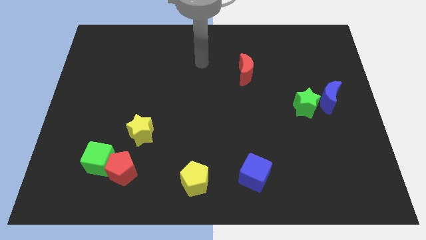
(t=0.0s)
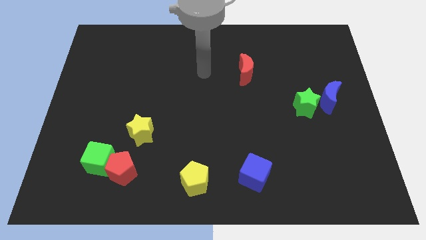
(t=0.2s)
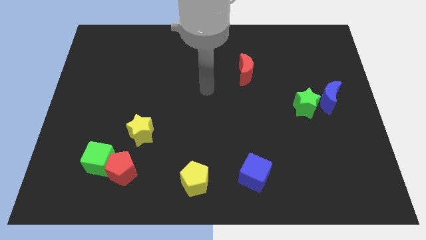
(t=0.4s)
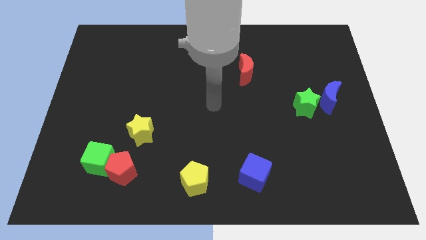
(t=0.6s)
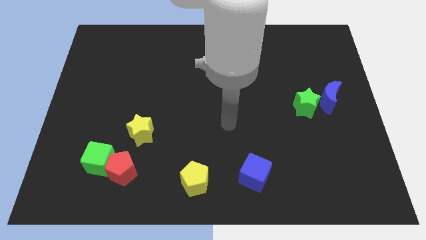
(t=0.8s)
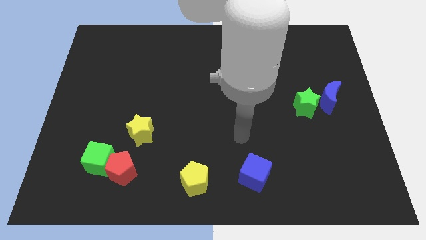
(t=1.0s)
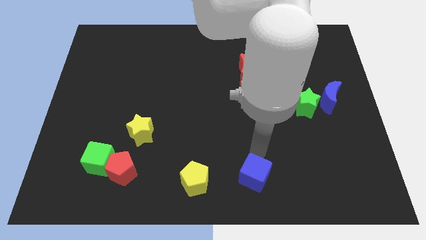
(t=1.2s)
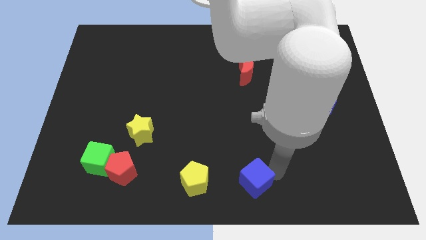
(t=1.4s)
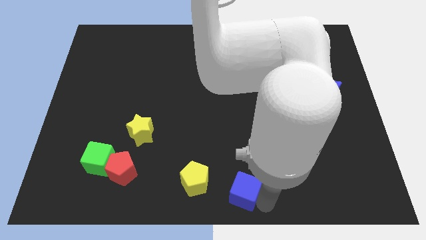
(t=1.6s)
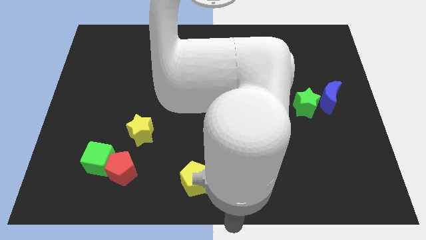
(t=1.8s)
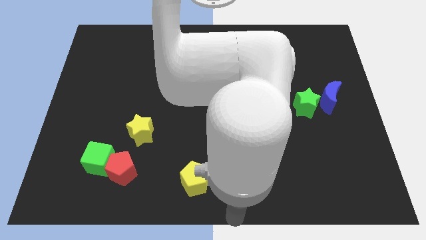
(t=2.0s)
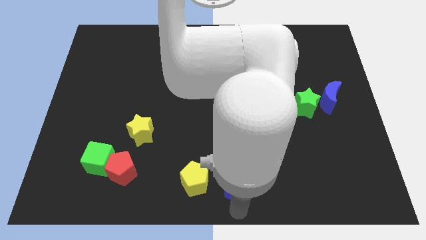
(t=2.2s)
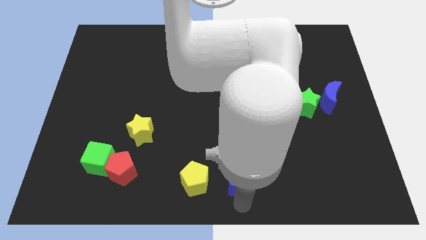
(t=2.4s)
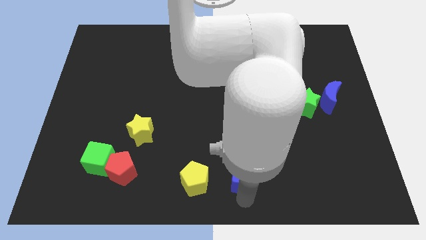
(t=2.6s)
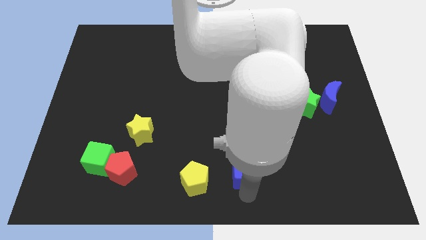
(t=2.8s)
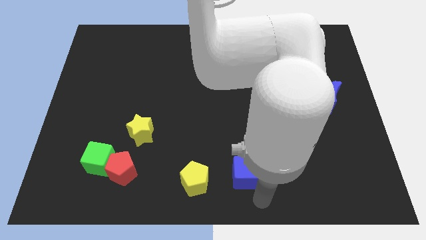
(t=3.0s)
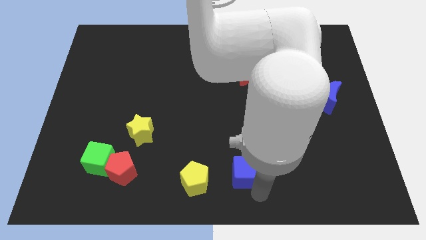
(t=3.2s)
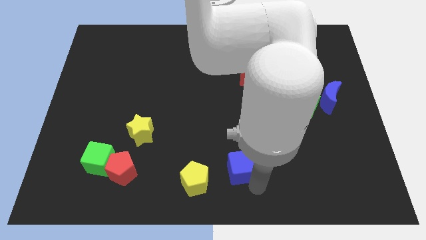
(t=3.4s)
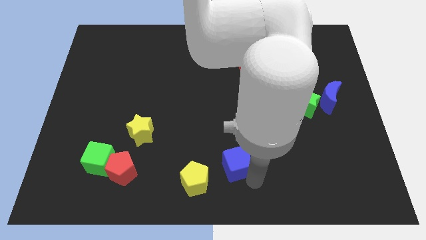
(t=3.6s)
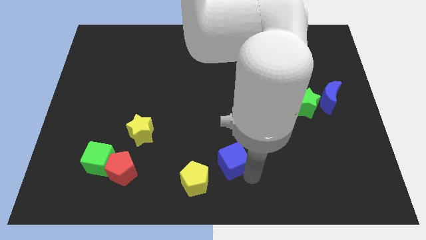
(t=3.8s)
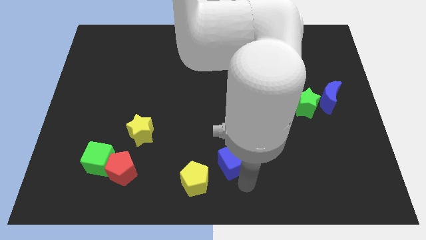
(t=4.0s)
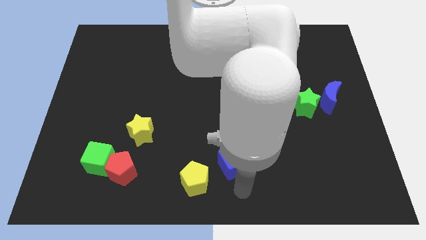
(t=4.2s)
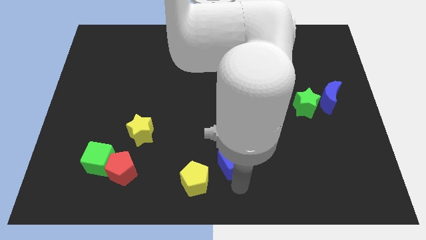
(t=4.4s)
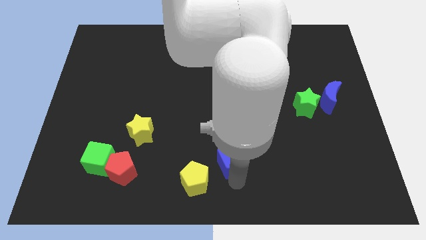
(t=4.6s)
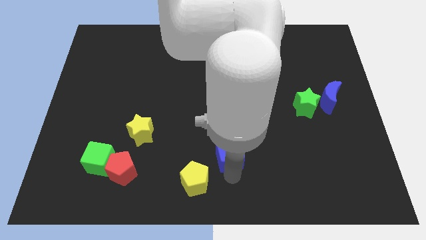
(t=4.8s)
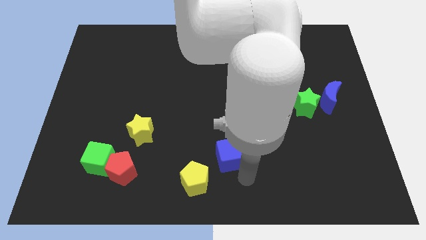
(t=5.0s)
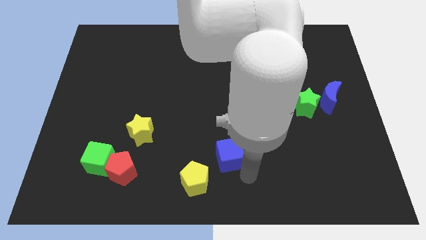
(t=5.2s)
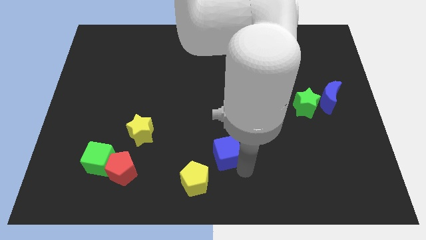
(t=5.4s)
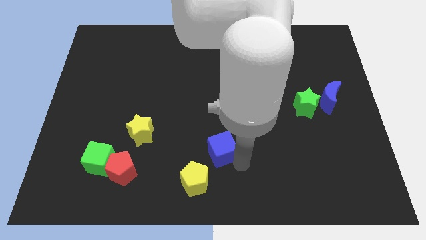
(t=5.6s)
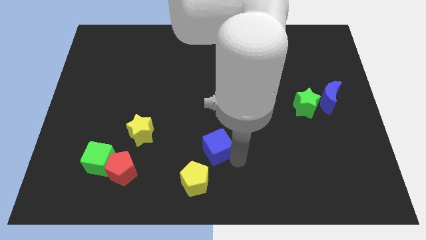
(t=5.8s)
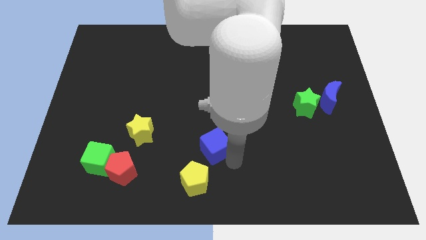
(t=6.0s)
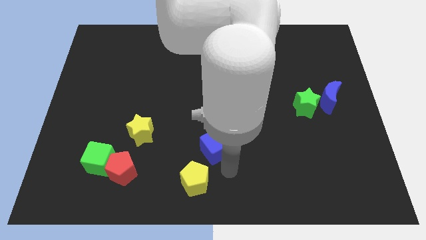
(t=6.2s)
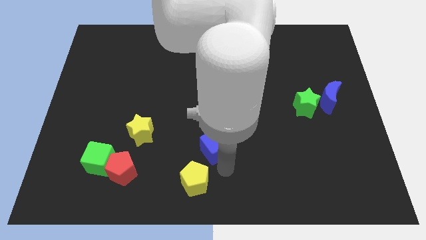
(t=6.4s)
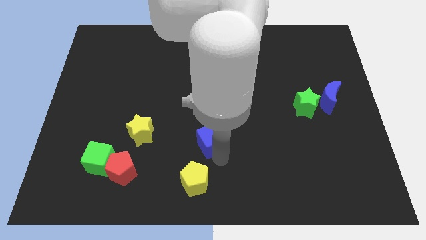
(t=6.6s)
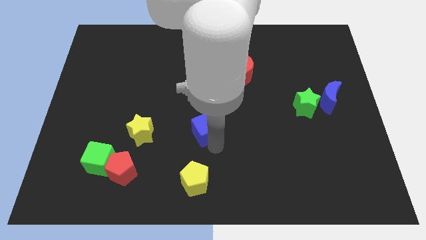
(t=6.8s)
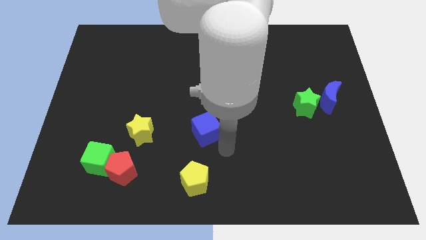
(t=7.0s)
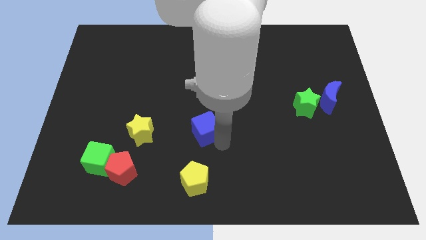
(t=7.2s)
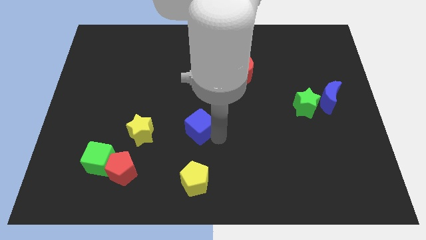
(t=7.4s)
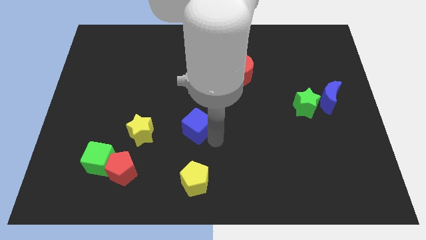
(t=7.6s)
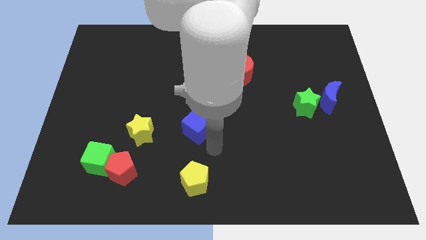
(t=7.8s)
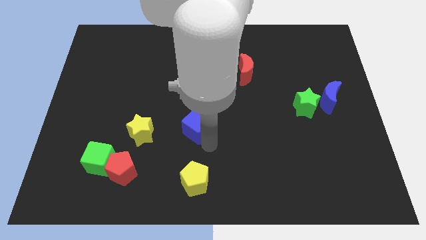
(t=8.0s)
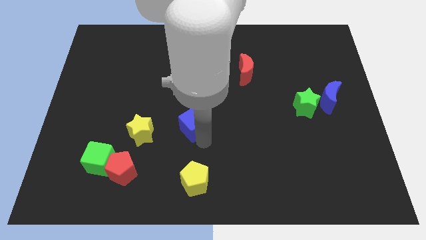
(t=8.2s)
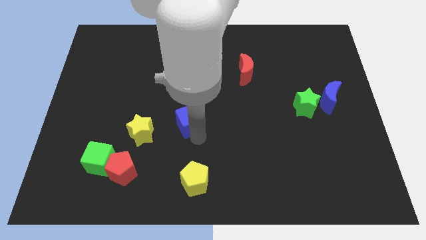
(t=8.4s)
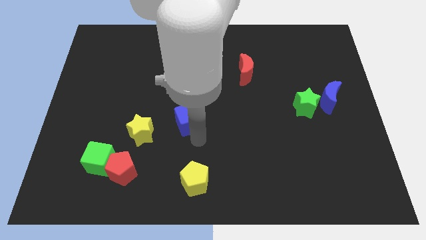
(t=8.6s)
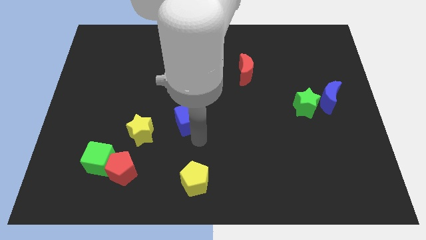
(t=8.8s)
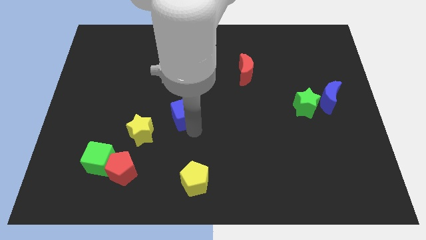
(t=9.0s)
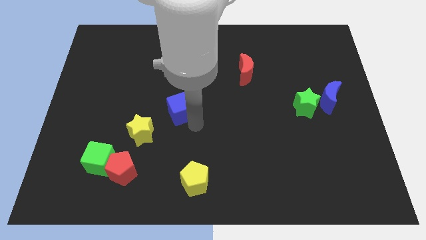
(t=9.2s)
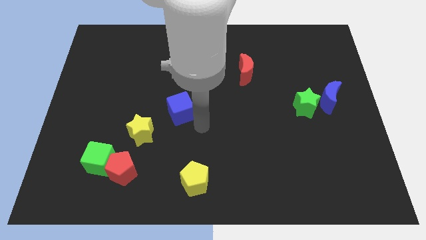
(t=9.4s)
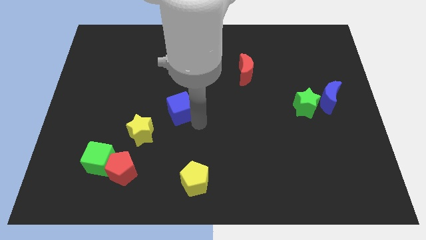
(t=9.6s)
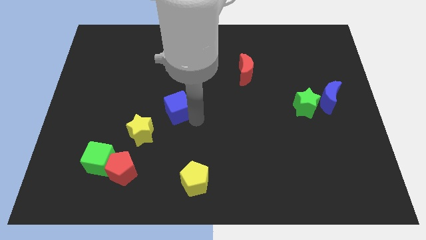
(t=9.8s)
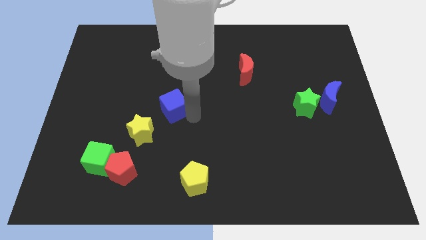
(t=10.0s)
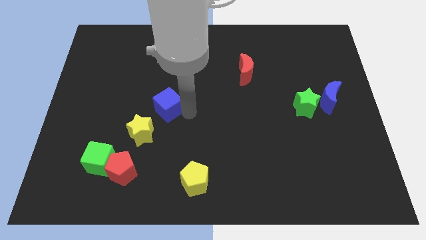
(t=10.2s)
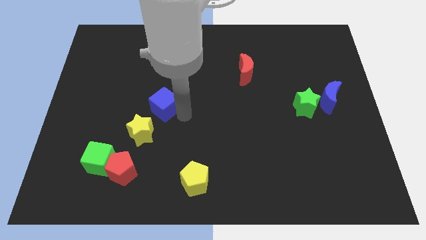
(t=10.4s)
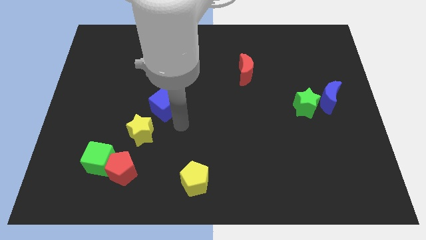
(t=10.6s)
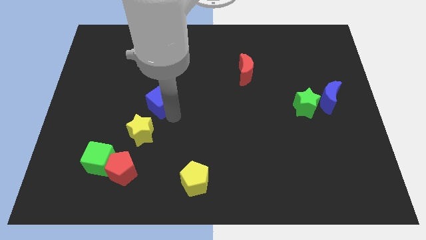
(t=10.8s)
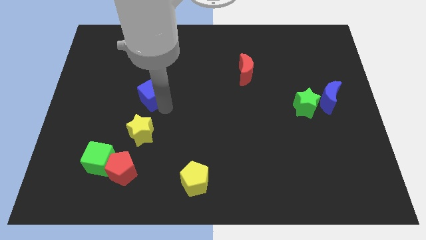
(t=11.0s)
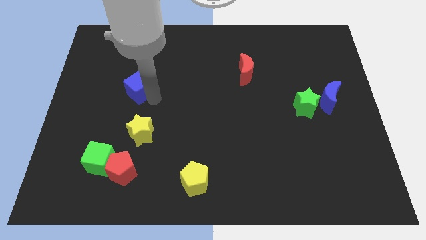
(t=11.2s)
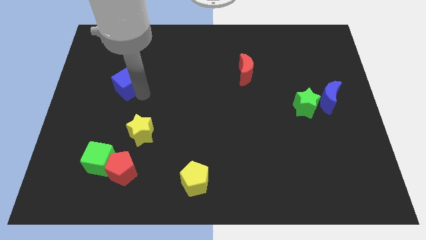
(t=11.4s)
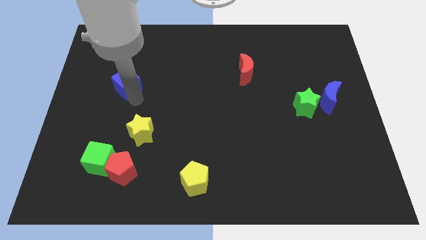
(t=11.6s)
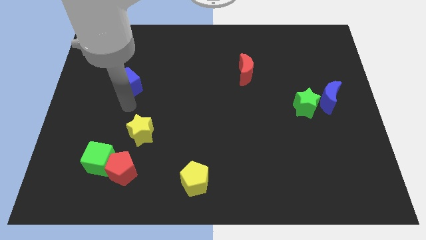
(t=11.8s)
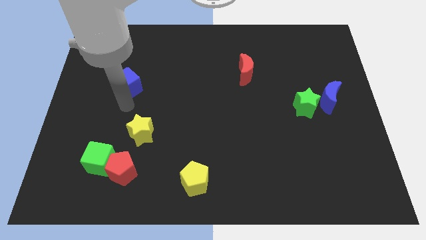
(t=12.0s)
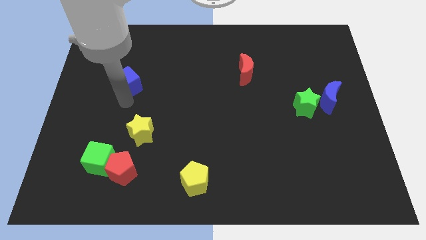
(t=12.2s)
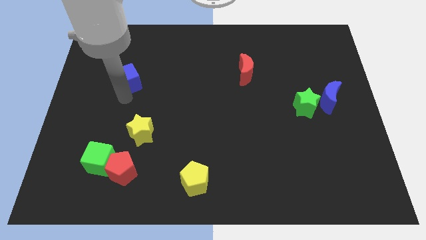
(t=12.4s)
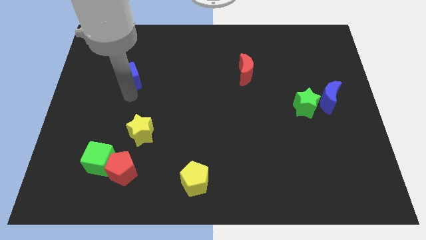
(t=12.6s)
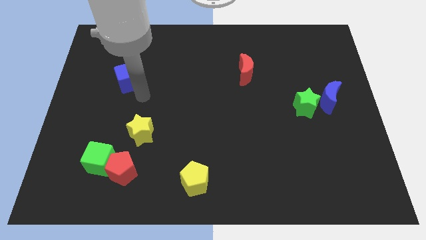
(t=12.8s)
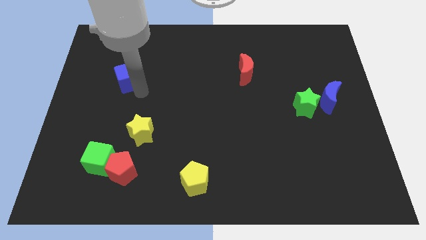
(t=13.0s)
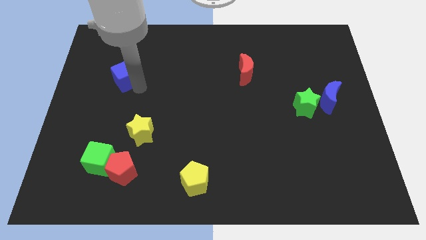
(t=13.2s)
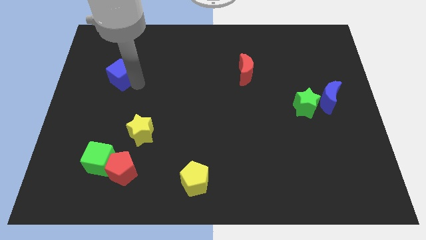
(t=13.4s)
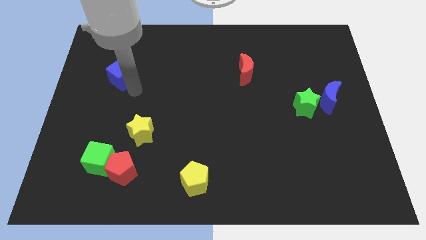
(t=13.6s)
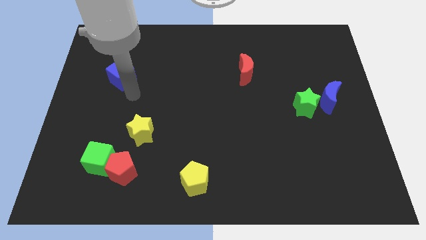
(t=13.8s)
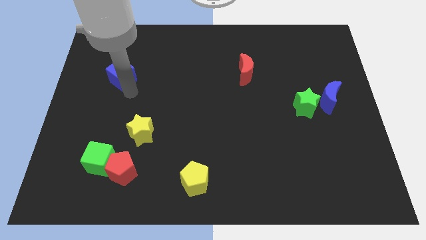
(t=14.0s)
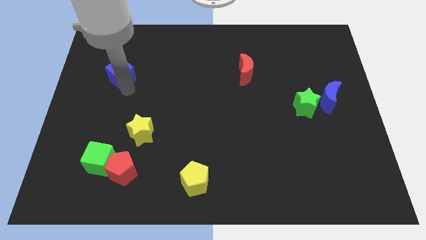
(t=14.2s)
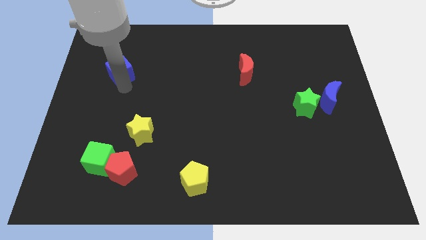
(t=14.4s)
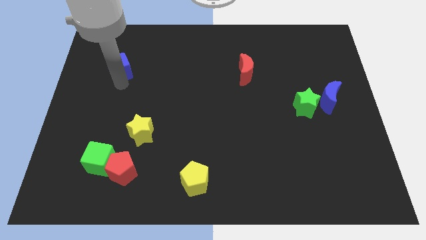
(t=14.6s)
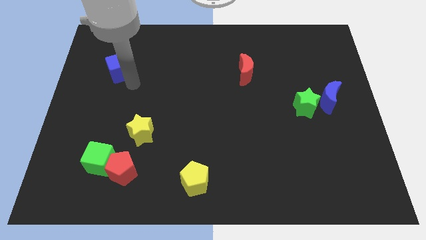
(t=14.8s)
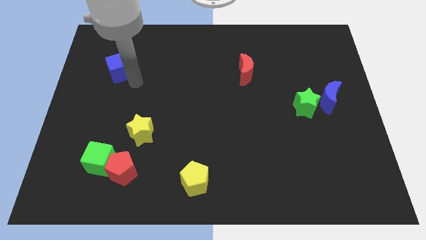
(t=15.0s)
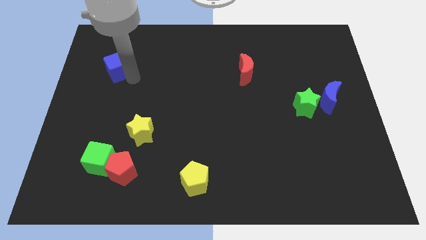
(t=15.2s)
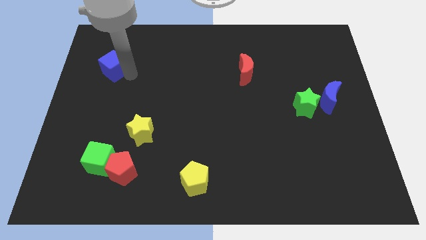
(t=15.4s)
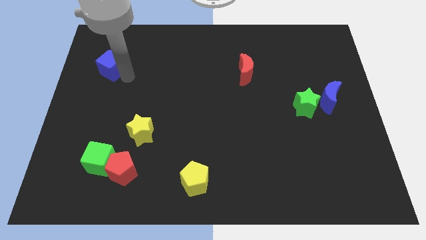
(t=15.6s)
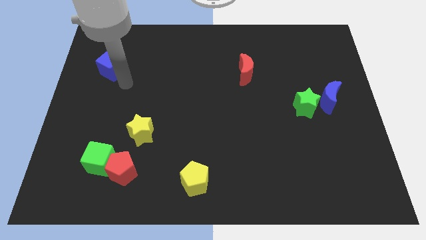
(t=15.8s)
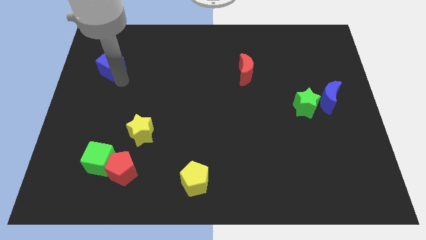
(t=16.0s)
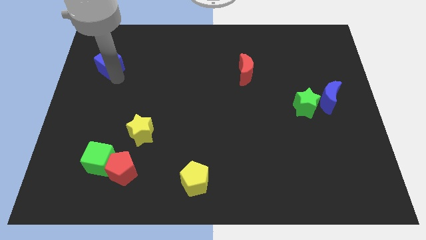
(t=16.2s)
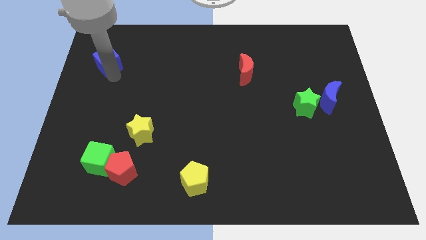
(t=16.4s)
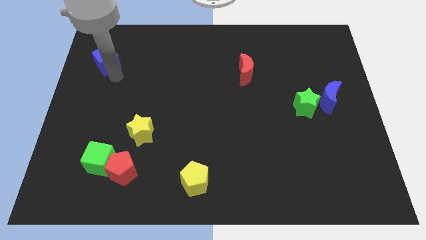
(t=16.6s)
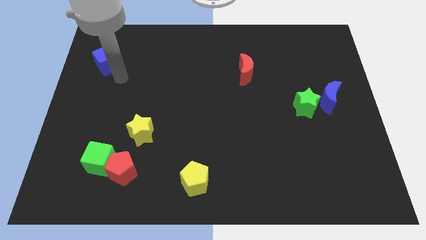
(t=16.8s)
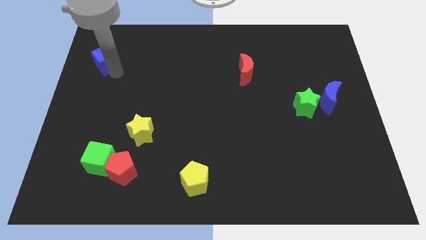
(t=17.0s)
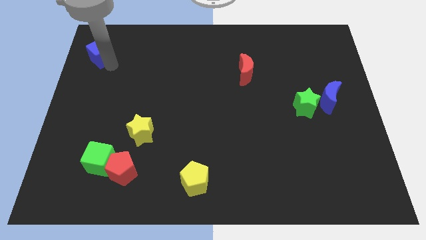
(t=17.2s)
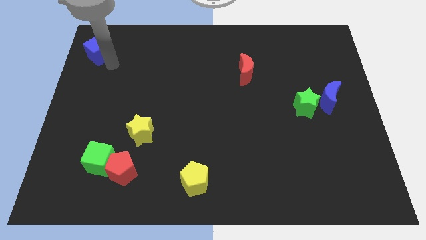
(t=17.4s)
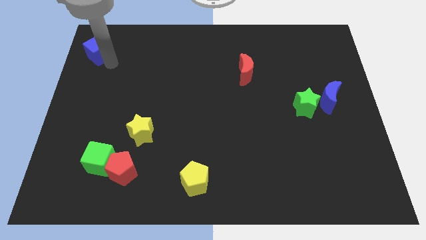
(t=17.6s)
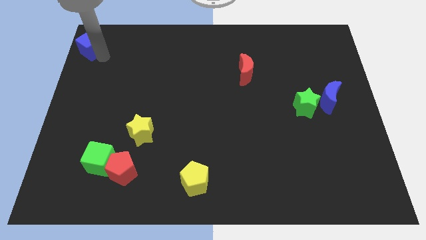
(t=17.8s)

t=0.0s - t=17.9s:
put the blue cube to the top left of the board
